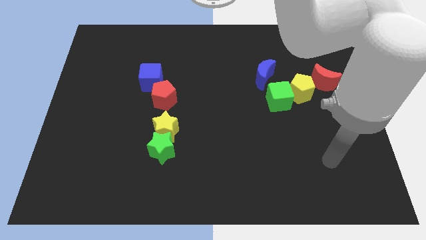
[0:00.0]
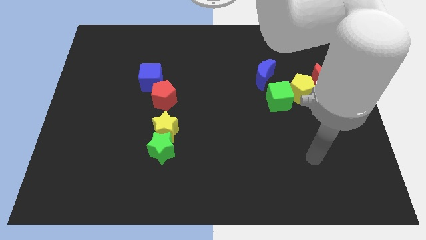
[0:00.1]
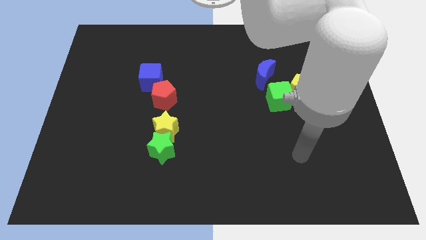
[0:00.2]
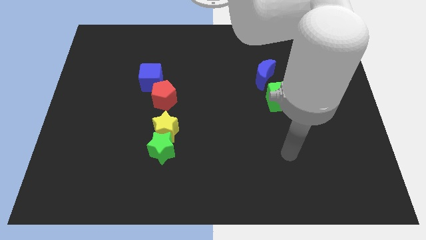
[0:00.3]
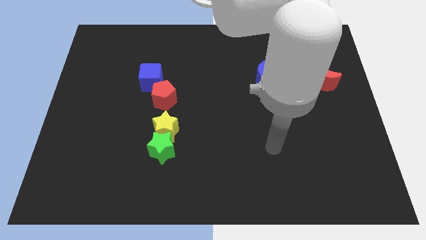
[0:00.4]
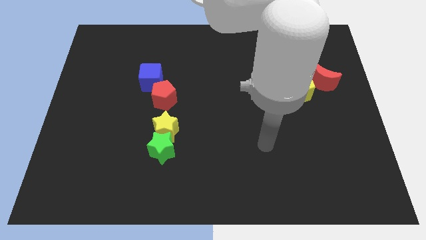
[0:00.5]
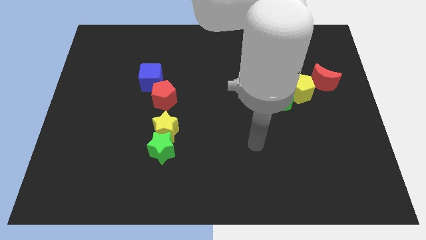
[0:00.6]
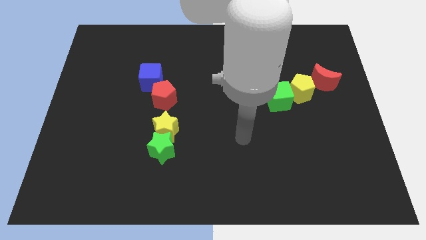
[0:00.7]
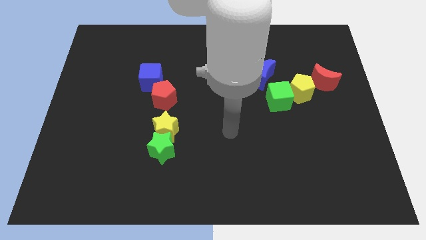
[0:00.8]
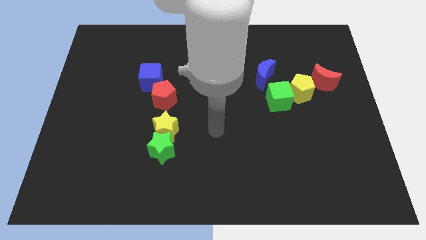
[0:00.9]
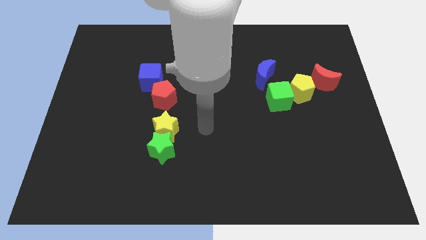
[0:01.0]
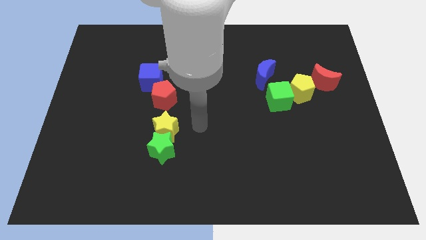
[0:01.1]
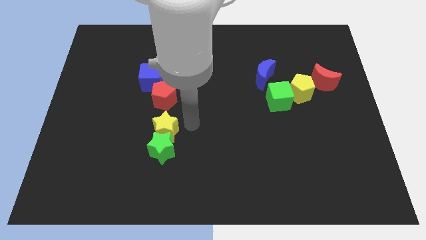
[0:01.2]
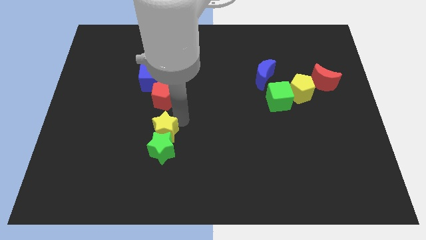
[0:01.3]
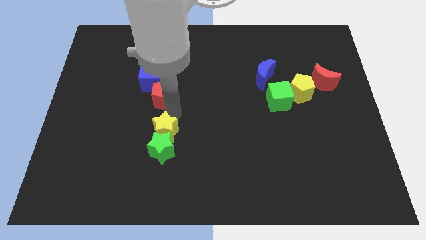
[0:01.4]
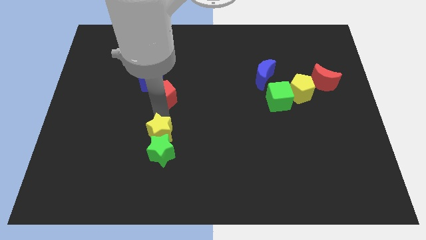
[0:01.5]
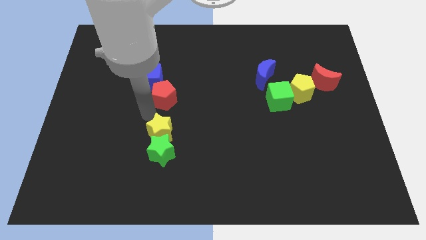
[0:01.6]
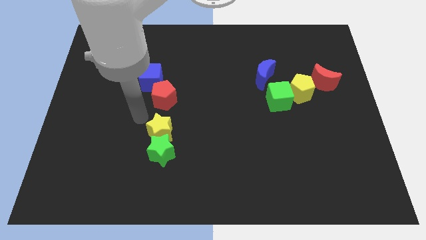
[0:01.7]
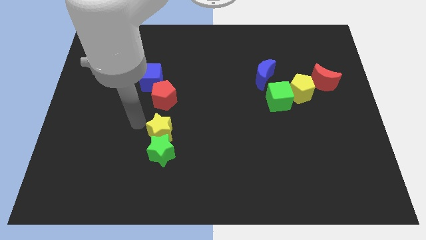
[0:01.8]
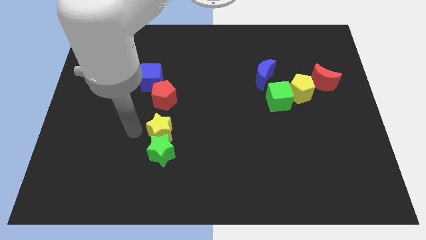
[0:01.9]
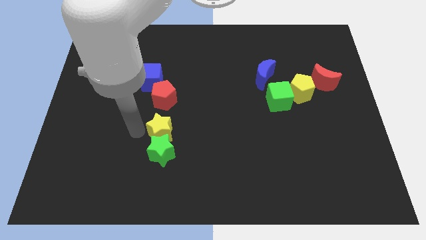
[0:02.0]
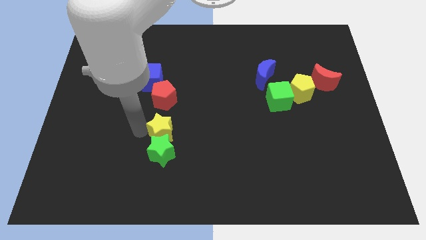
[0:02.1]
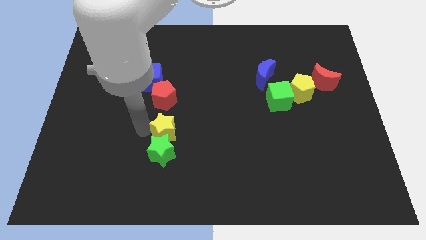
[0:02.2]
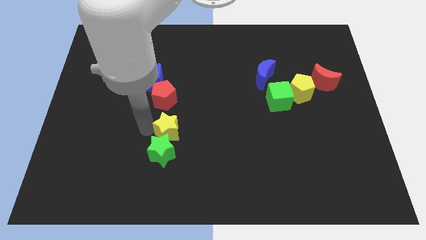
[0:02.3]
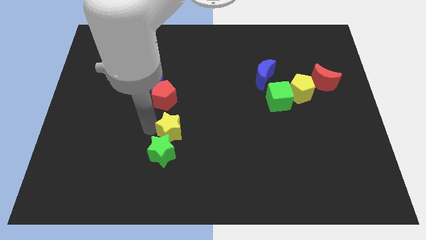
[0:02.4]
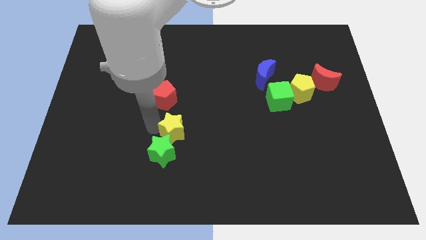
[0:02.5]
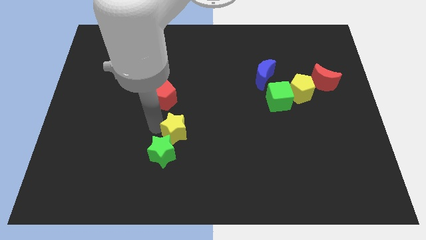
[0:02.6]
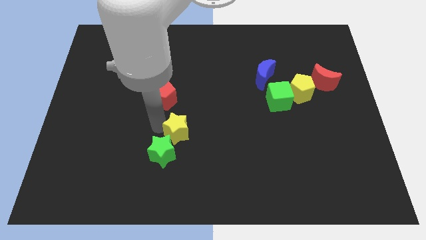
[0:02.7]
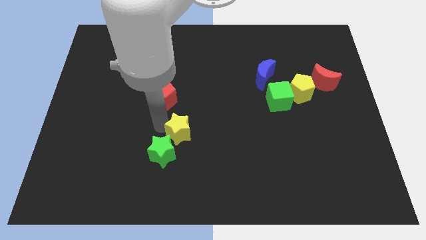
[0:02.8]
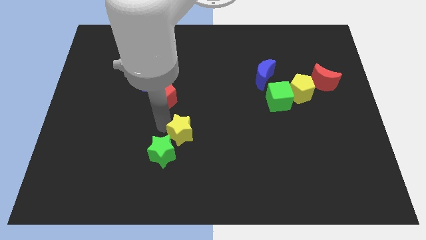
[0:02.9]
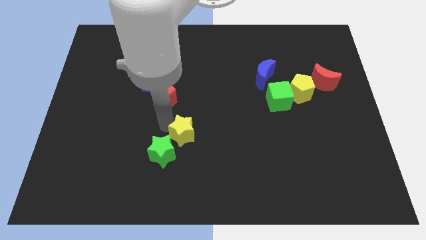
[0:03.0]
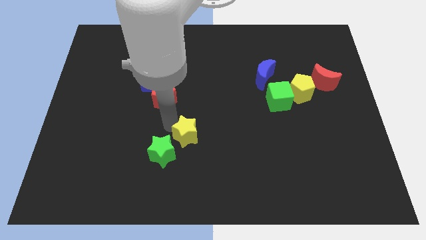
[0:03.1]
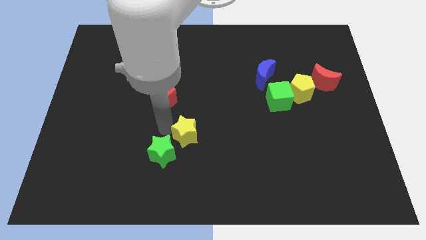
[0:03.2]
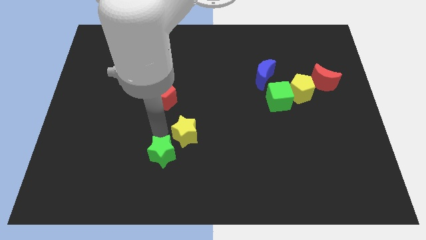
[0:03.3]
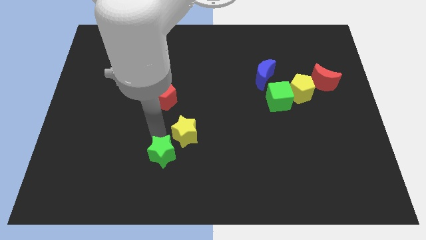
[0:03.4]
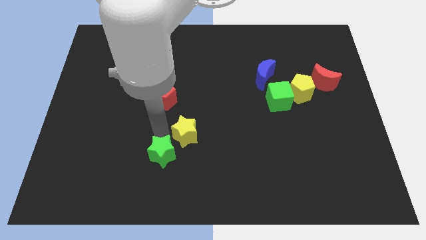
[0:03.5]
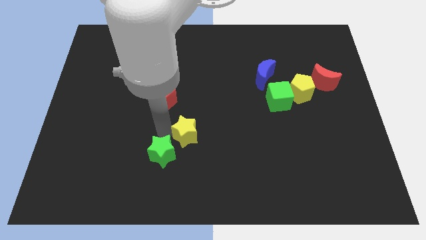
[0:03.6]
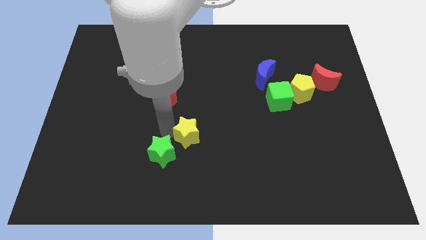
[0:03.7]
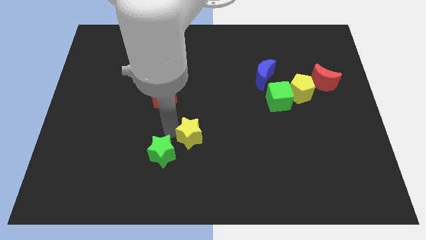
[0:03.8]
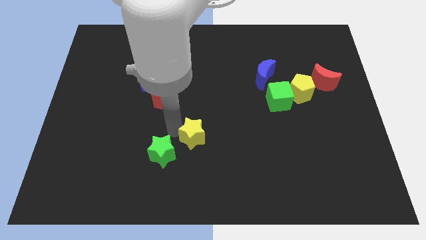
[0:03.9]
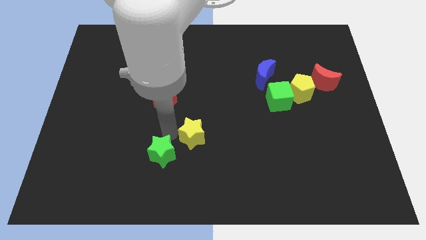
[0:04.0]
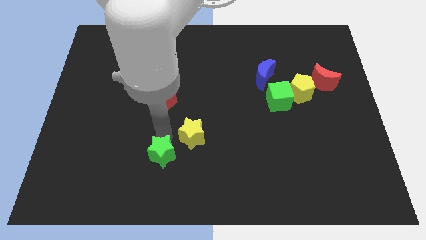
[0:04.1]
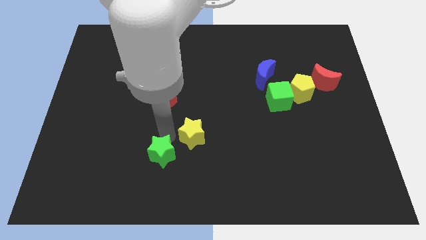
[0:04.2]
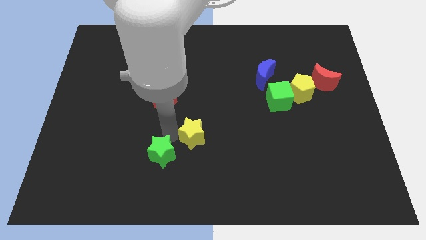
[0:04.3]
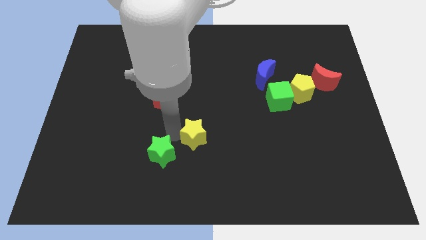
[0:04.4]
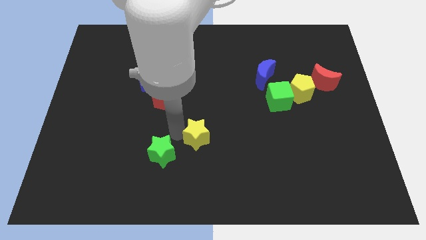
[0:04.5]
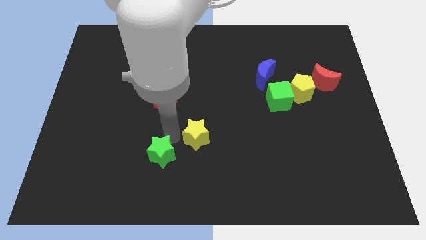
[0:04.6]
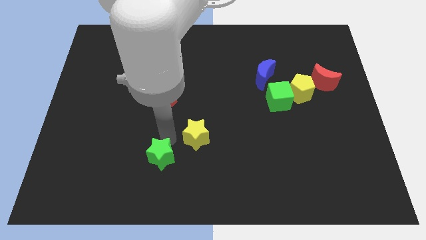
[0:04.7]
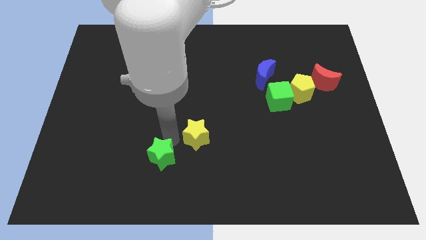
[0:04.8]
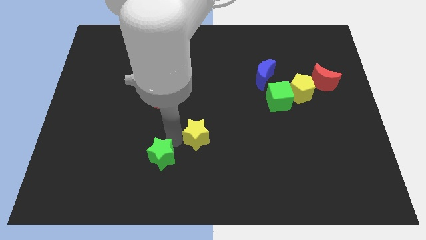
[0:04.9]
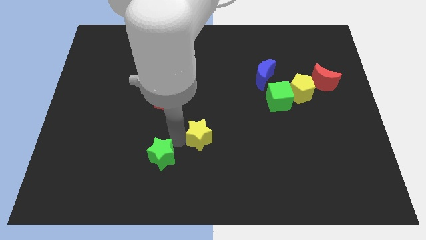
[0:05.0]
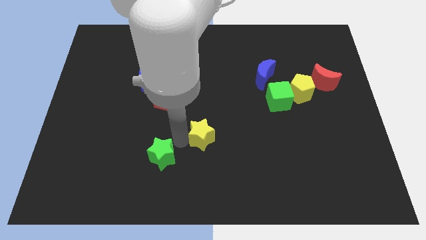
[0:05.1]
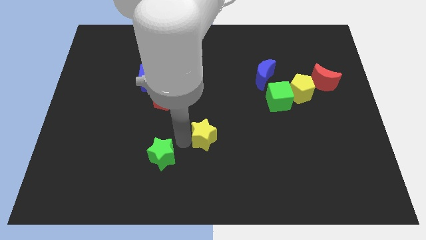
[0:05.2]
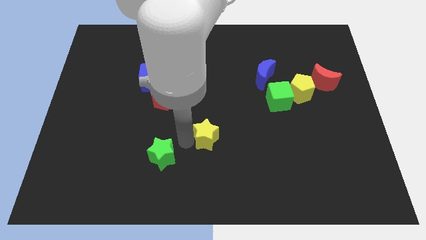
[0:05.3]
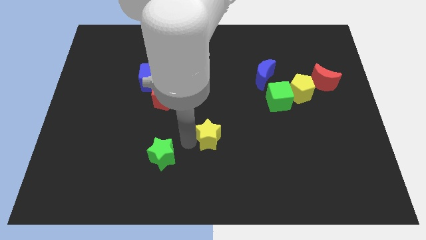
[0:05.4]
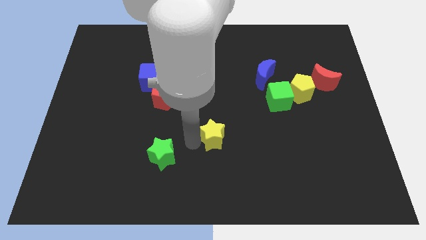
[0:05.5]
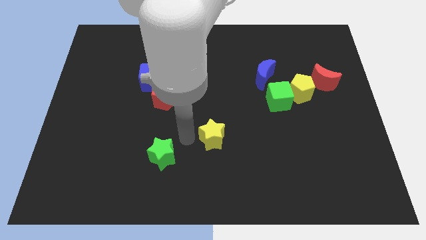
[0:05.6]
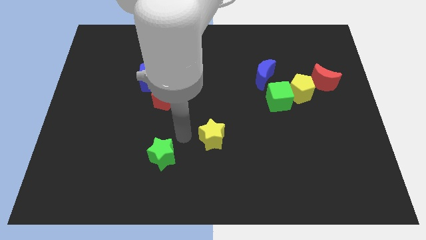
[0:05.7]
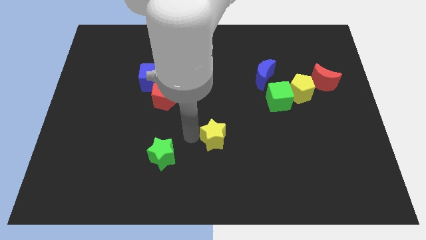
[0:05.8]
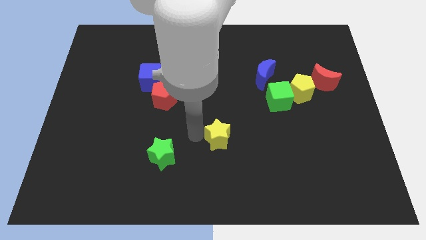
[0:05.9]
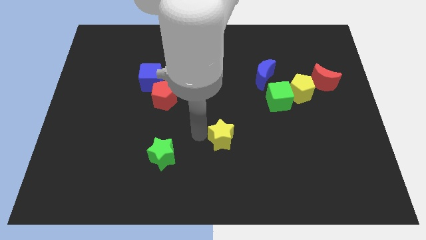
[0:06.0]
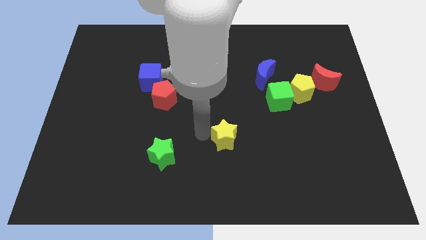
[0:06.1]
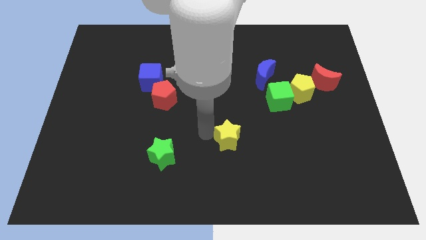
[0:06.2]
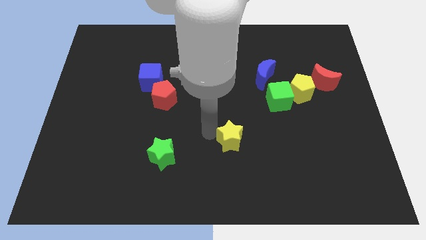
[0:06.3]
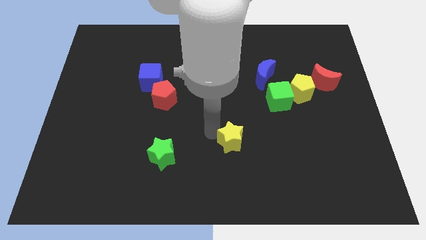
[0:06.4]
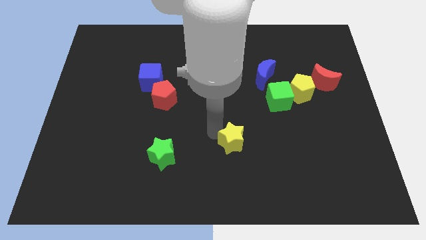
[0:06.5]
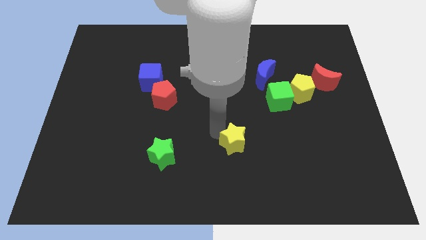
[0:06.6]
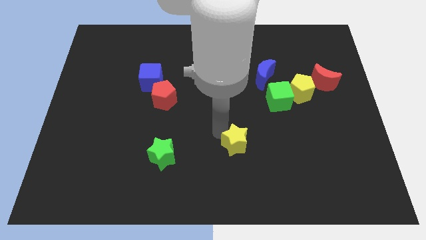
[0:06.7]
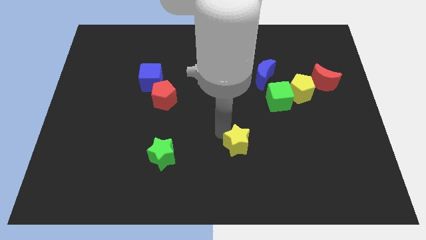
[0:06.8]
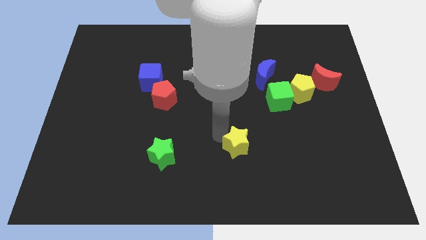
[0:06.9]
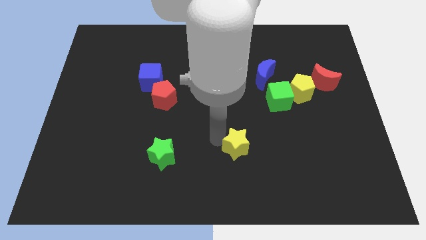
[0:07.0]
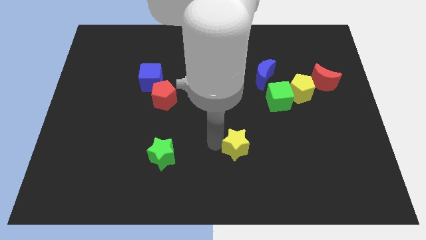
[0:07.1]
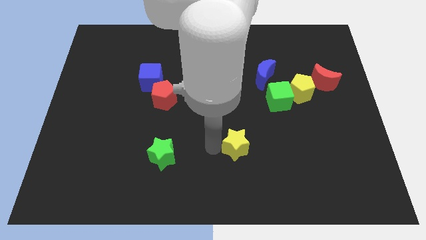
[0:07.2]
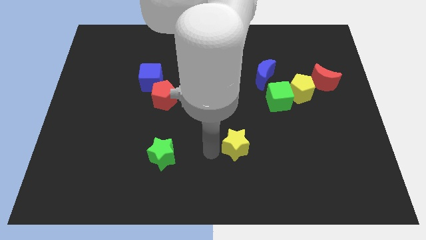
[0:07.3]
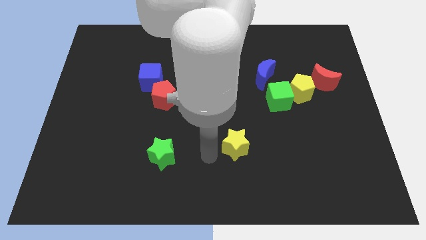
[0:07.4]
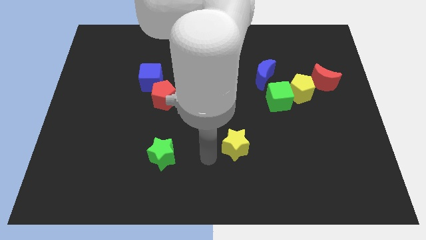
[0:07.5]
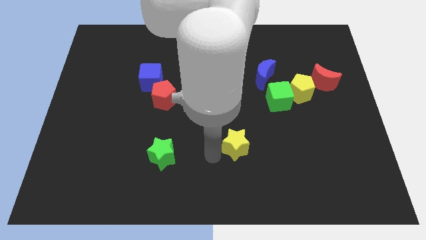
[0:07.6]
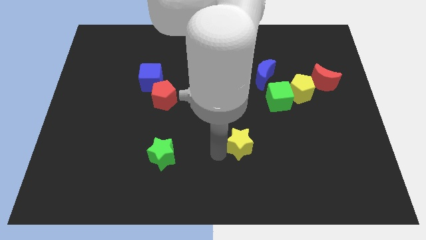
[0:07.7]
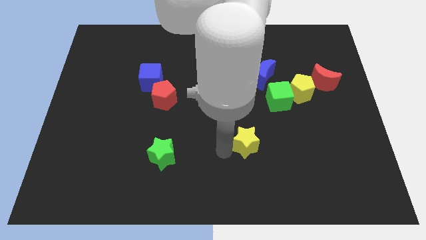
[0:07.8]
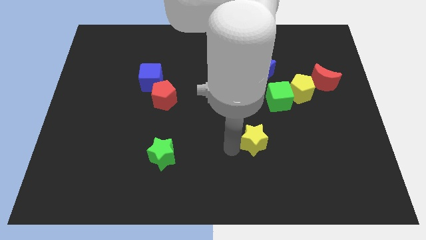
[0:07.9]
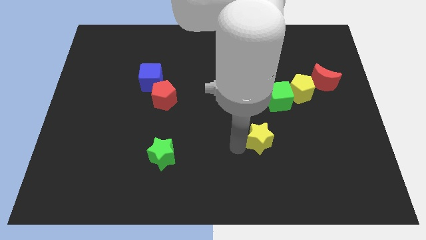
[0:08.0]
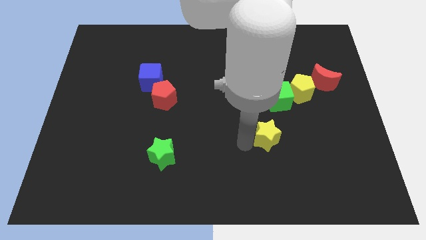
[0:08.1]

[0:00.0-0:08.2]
slide the yellow star below the green cube
